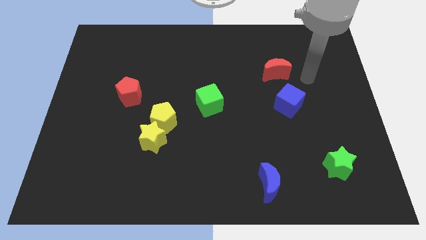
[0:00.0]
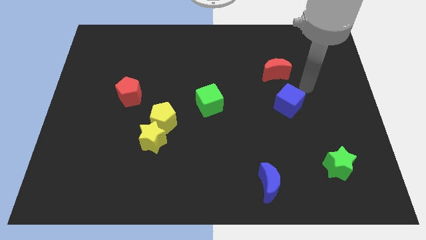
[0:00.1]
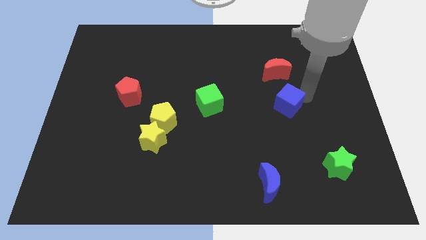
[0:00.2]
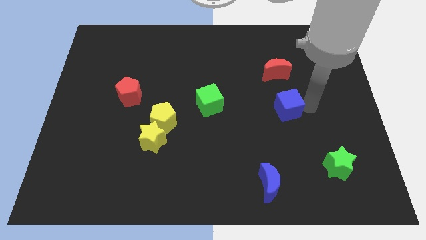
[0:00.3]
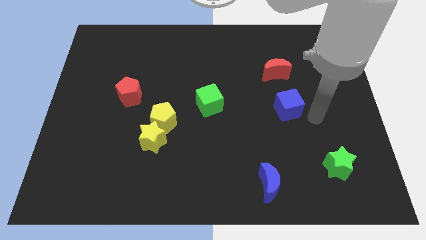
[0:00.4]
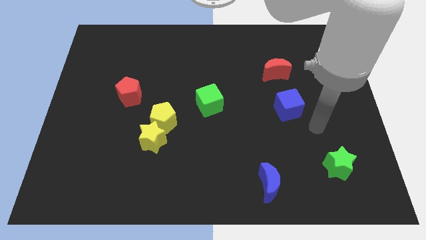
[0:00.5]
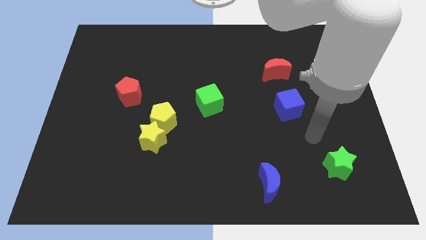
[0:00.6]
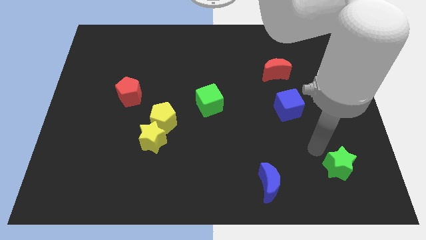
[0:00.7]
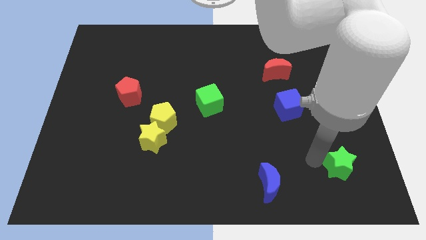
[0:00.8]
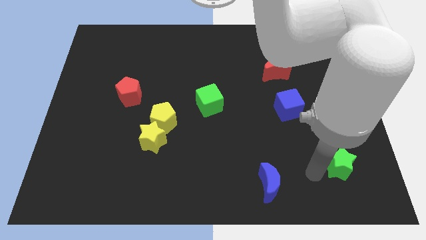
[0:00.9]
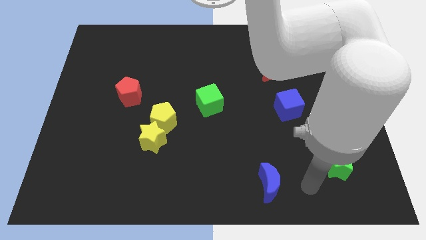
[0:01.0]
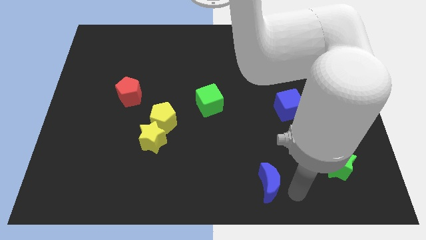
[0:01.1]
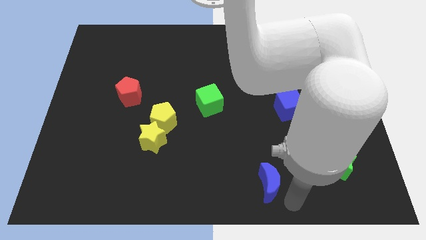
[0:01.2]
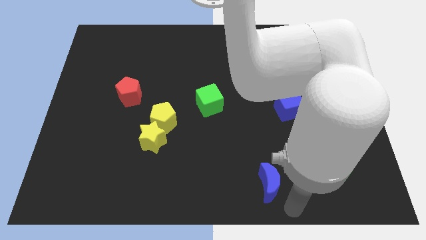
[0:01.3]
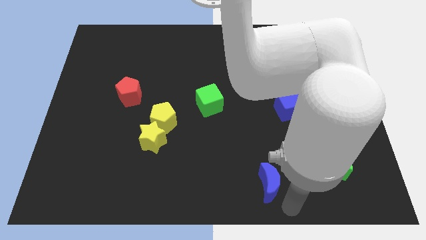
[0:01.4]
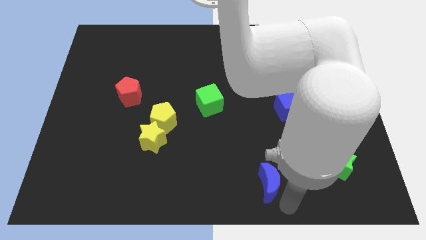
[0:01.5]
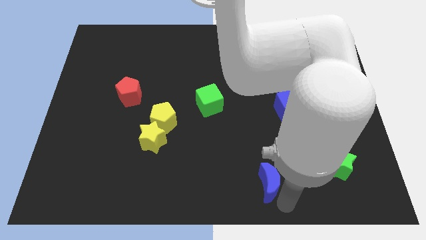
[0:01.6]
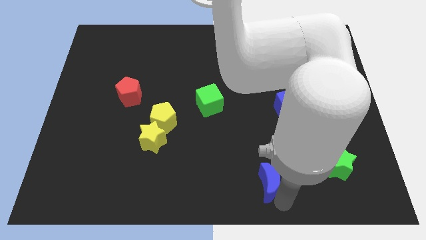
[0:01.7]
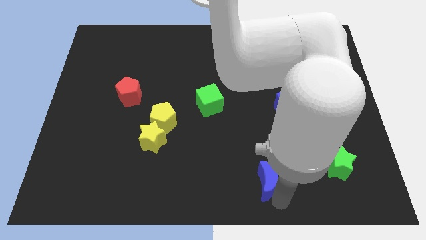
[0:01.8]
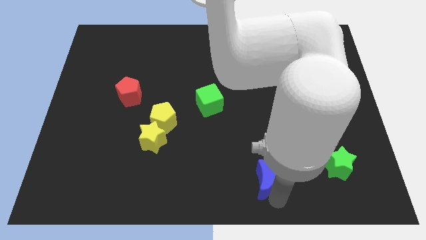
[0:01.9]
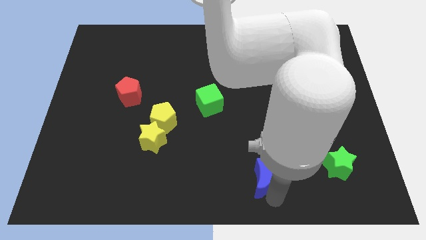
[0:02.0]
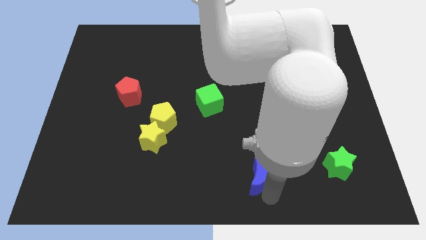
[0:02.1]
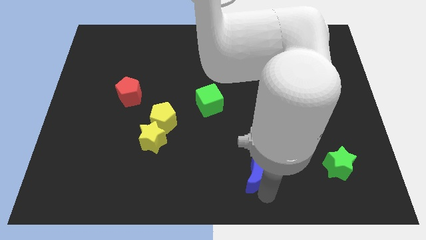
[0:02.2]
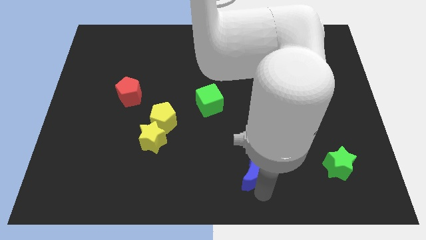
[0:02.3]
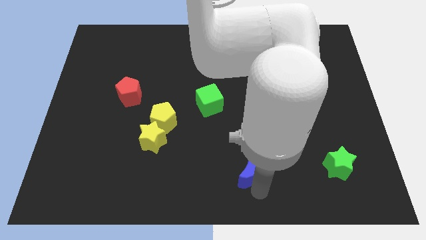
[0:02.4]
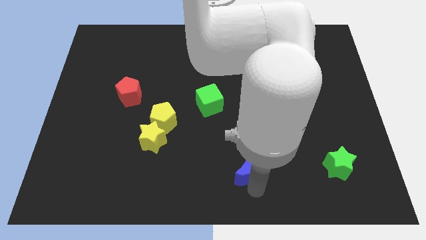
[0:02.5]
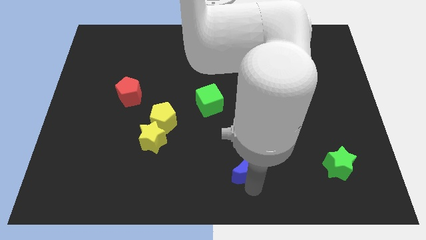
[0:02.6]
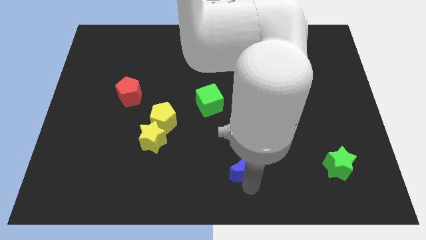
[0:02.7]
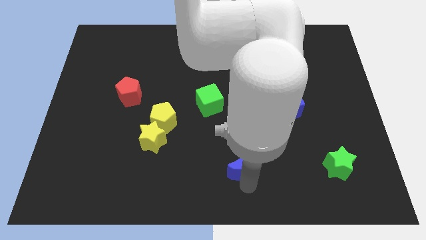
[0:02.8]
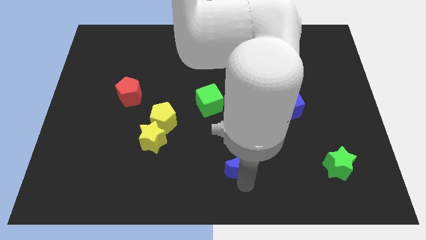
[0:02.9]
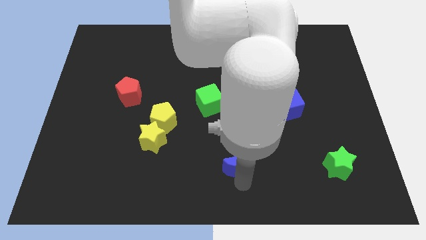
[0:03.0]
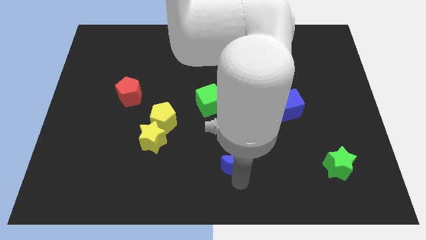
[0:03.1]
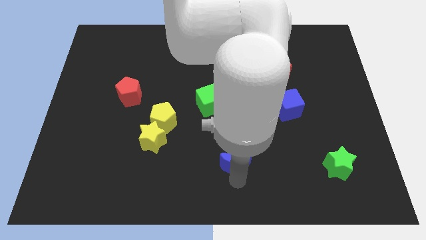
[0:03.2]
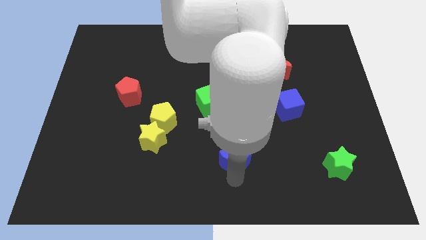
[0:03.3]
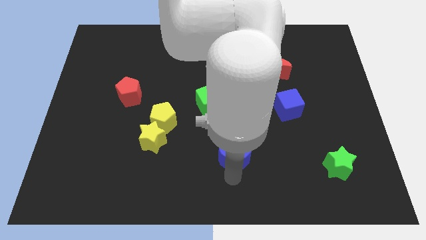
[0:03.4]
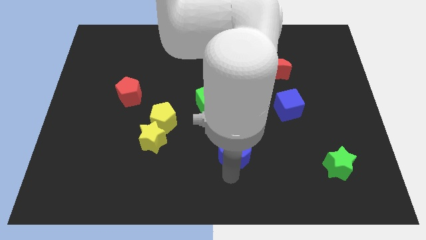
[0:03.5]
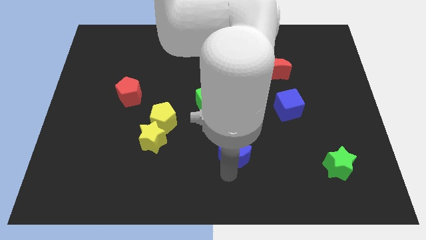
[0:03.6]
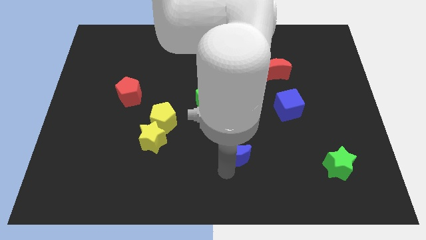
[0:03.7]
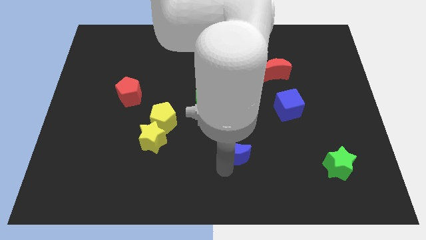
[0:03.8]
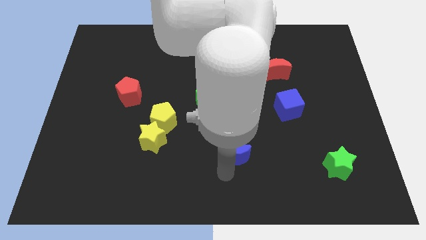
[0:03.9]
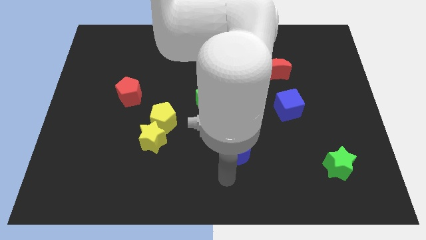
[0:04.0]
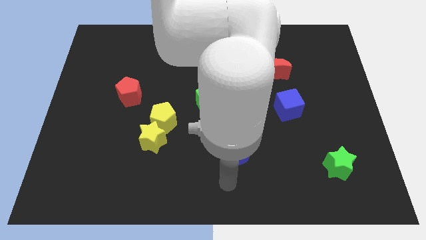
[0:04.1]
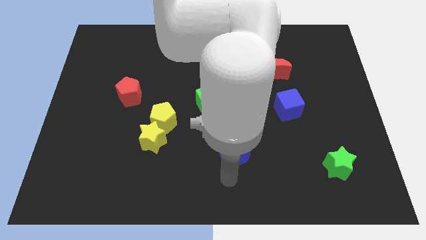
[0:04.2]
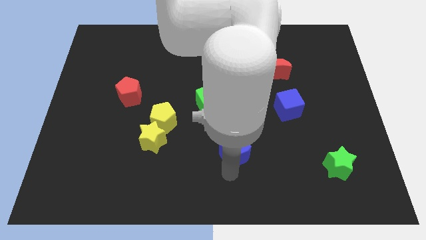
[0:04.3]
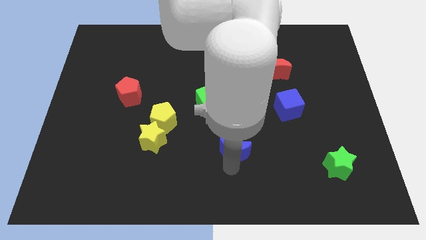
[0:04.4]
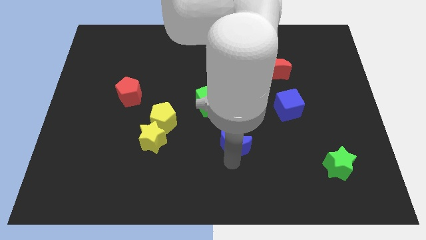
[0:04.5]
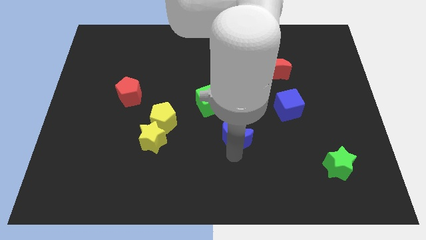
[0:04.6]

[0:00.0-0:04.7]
move the blue moon diagonally down and to the right of the green cube

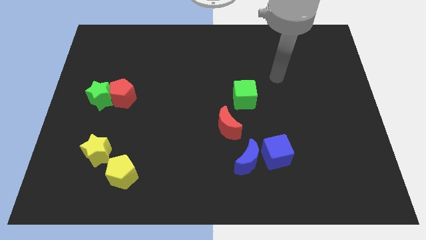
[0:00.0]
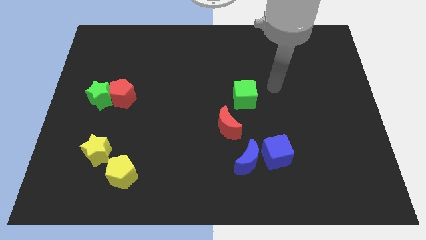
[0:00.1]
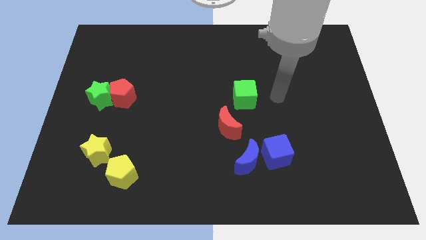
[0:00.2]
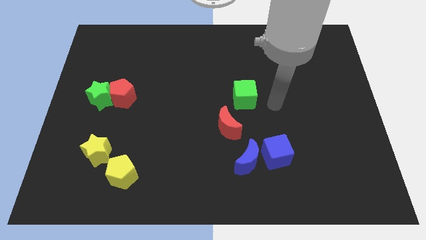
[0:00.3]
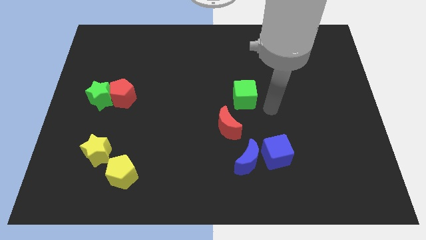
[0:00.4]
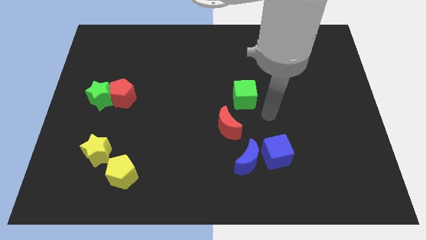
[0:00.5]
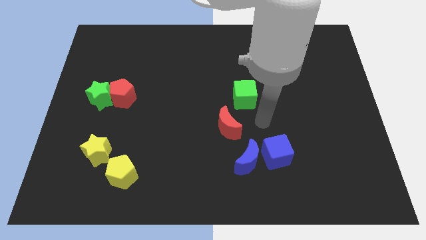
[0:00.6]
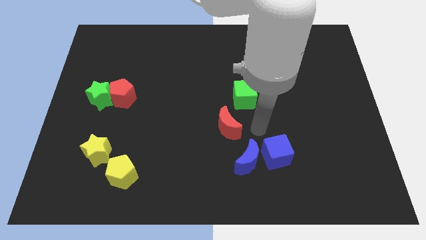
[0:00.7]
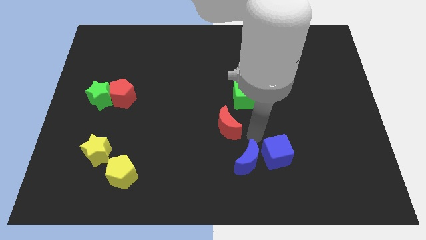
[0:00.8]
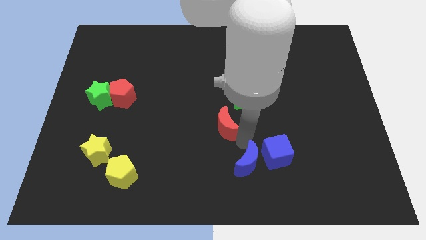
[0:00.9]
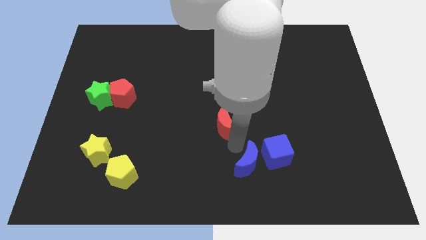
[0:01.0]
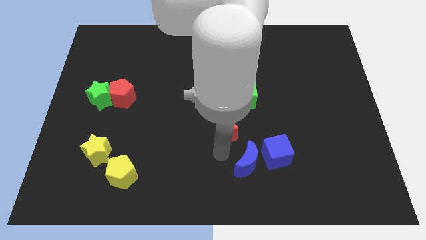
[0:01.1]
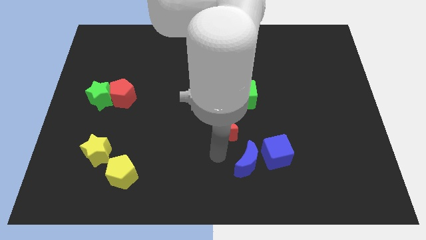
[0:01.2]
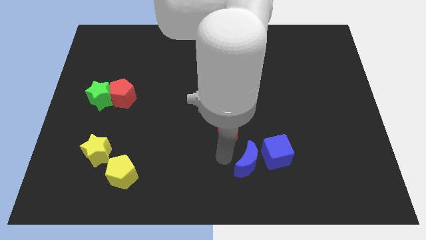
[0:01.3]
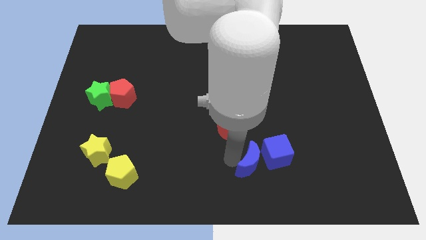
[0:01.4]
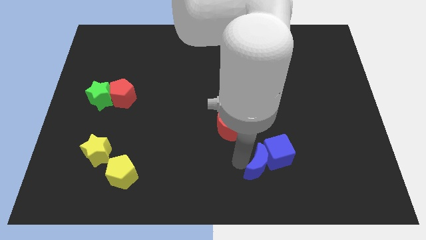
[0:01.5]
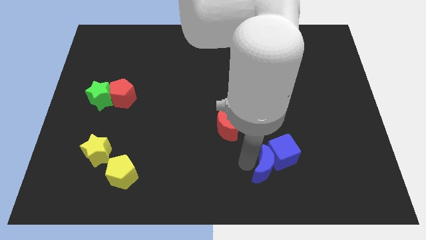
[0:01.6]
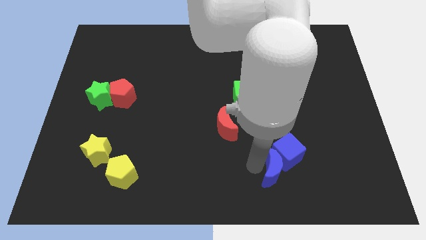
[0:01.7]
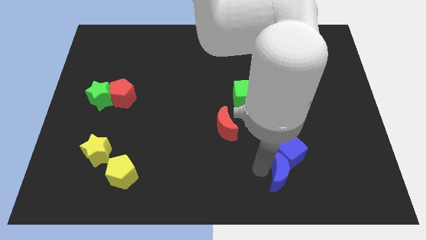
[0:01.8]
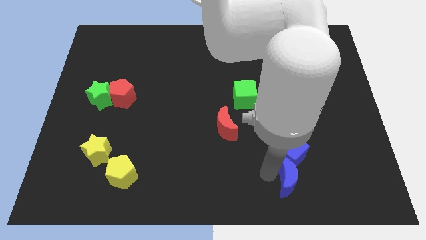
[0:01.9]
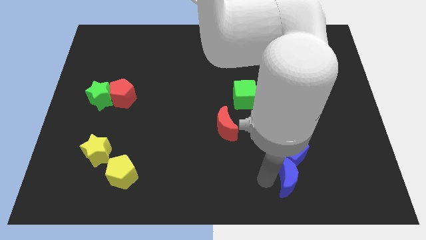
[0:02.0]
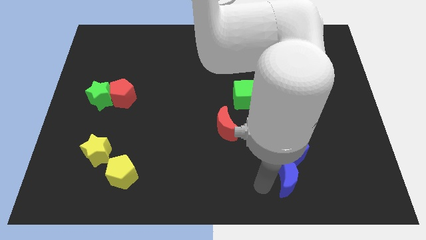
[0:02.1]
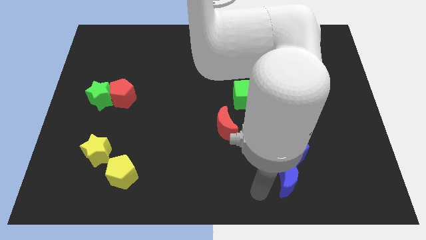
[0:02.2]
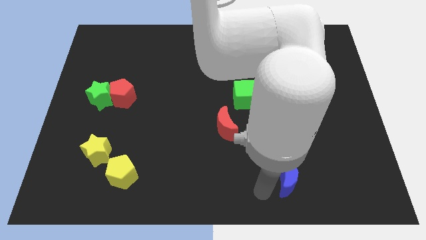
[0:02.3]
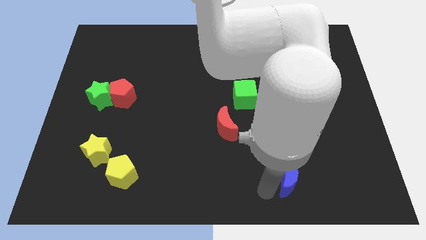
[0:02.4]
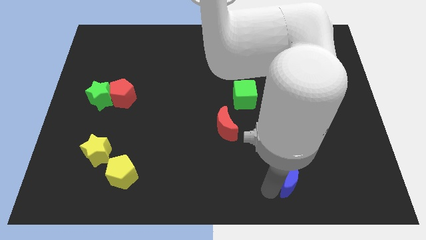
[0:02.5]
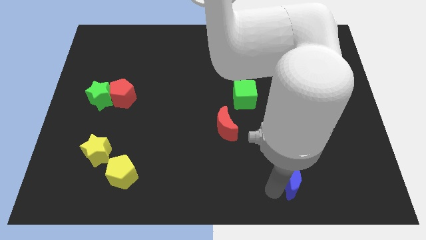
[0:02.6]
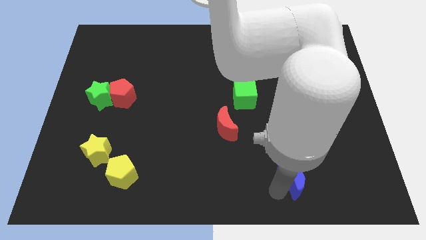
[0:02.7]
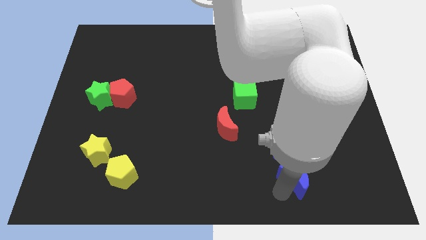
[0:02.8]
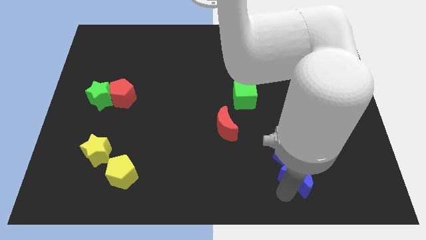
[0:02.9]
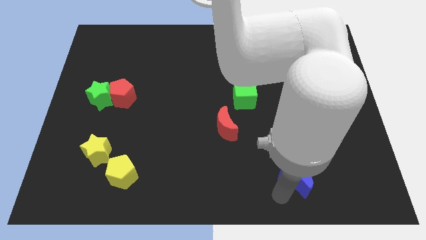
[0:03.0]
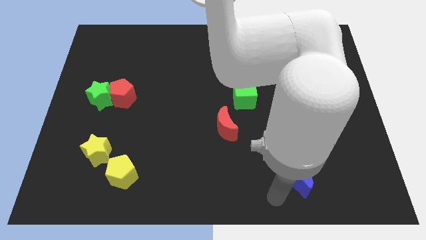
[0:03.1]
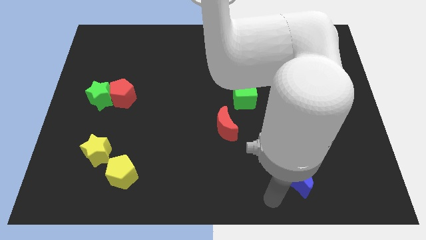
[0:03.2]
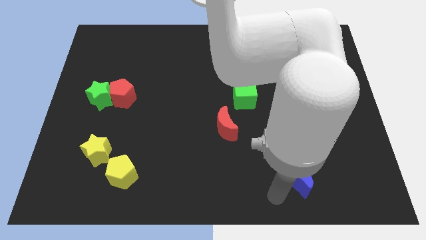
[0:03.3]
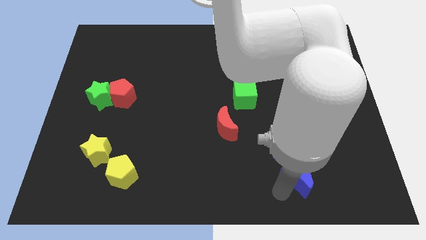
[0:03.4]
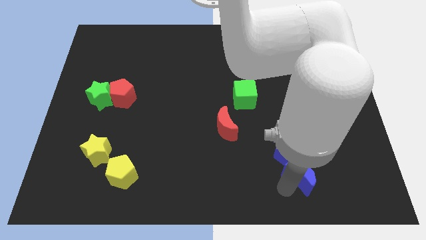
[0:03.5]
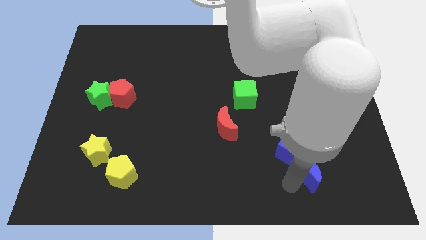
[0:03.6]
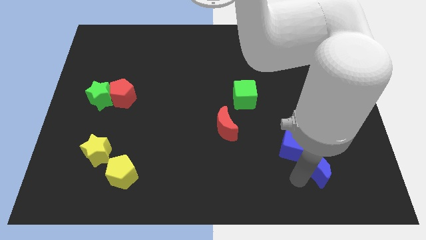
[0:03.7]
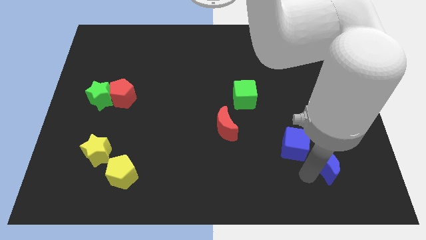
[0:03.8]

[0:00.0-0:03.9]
slide the blue moon to the right side of the blue cube
